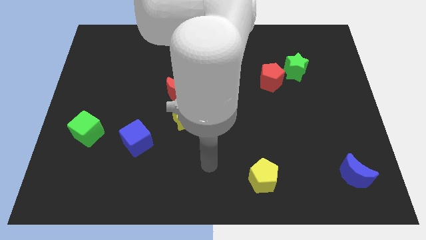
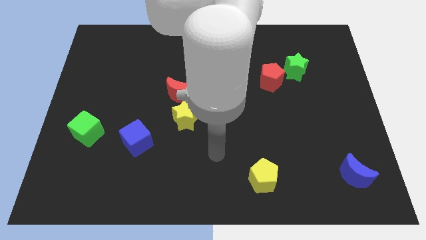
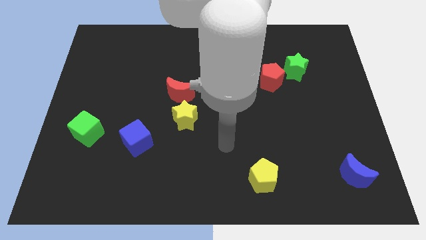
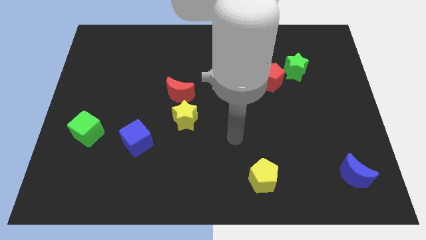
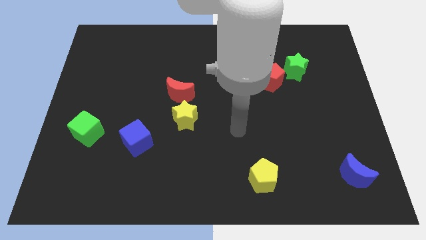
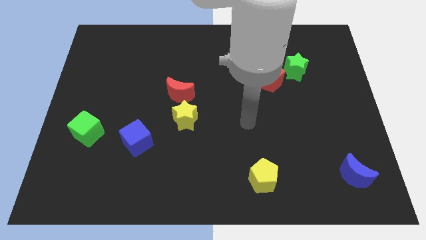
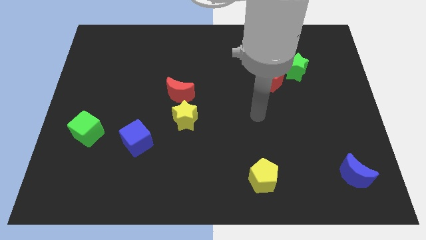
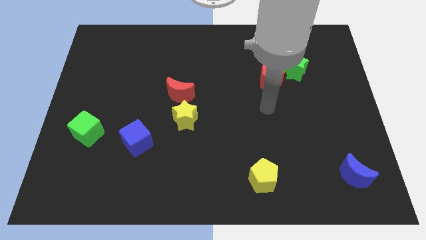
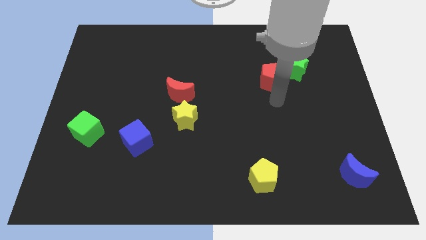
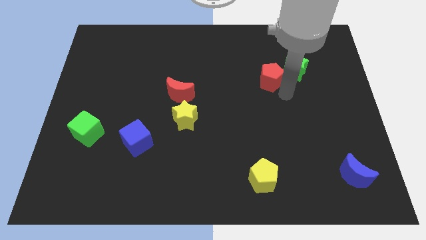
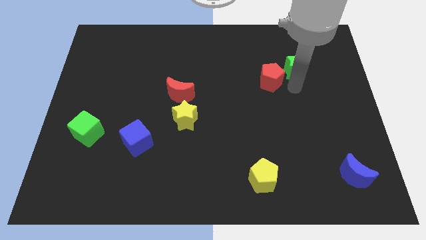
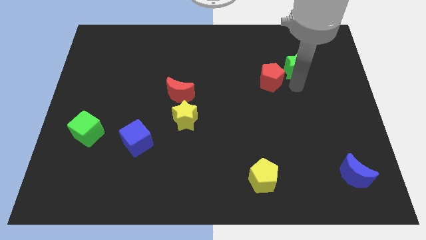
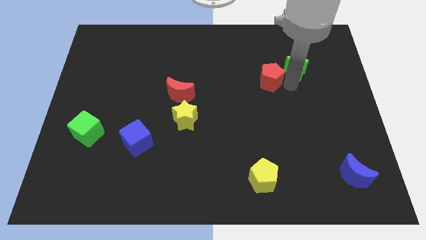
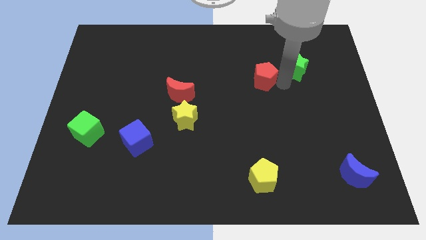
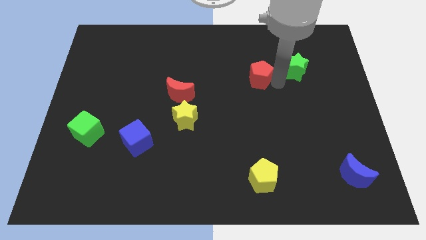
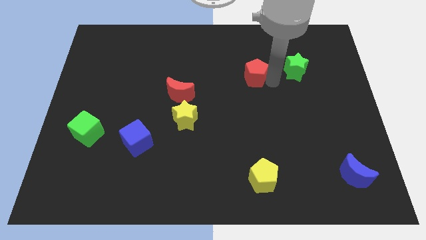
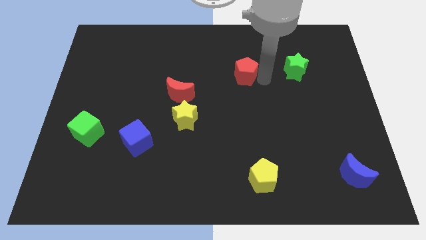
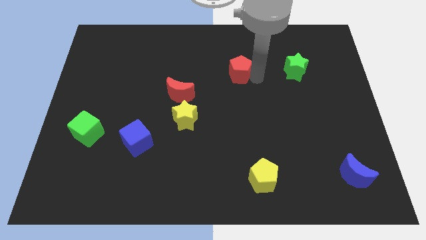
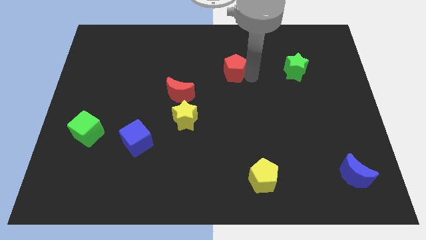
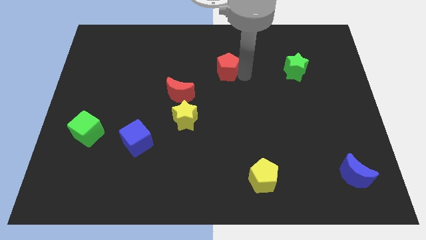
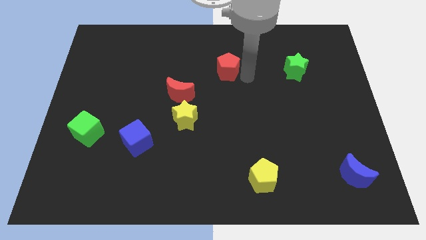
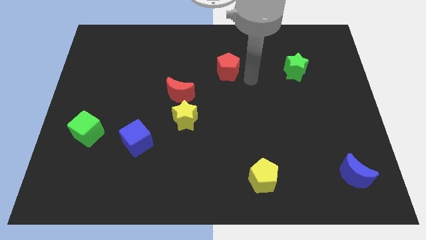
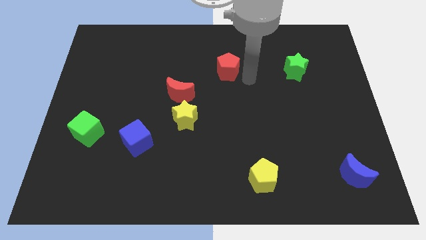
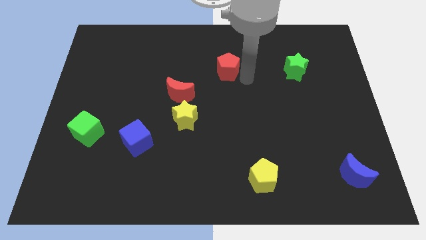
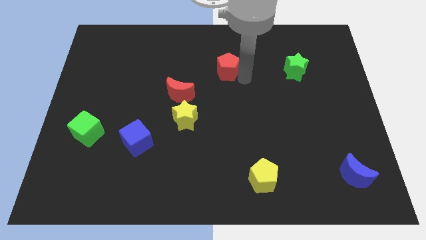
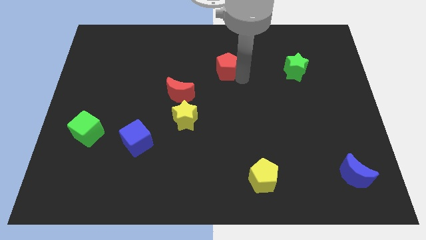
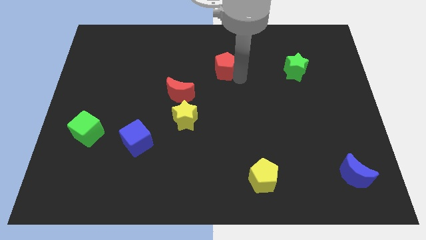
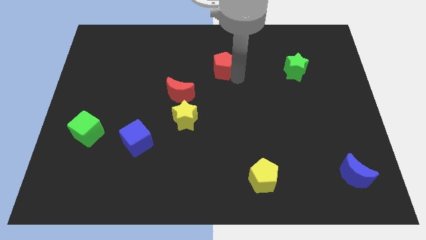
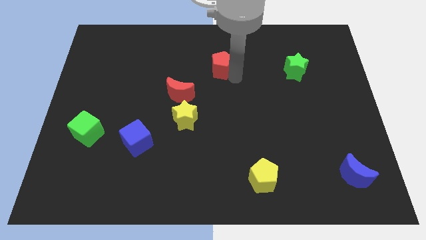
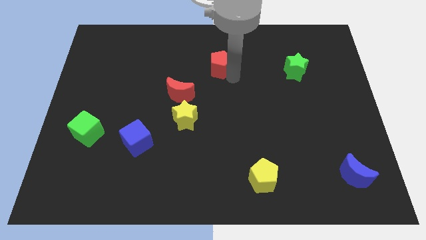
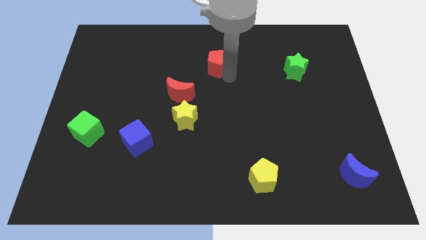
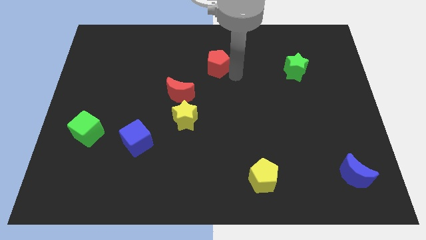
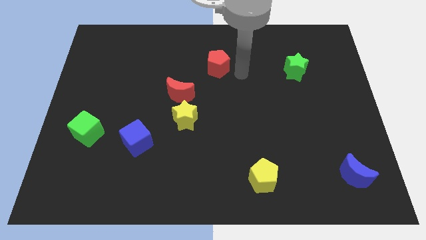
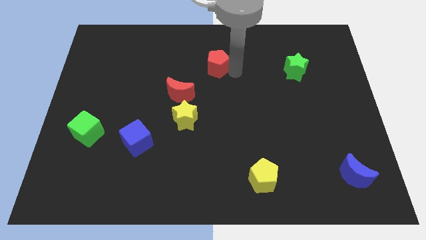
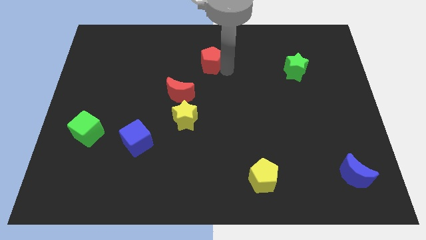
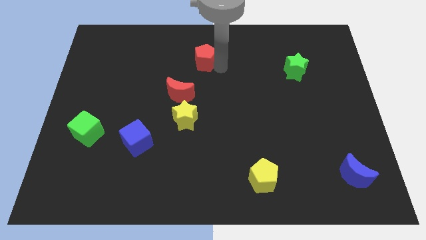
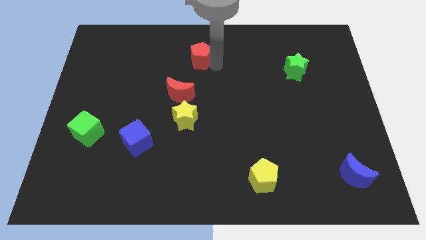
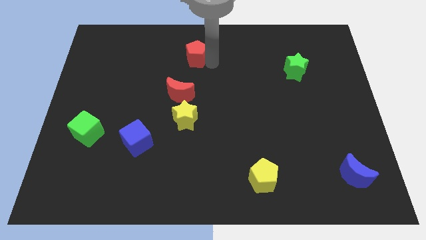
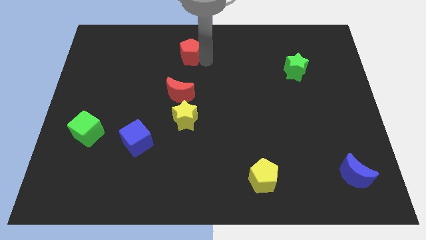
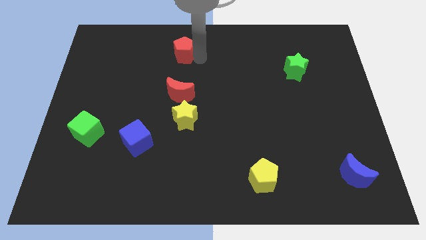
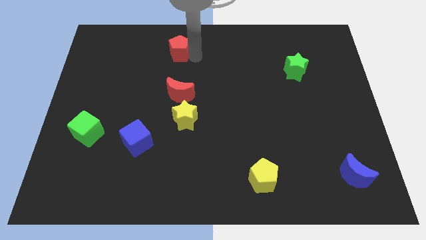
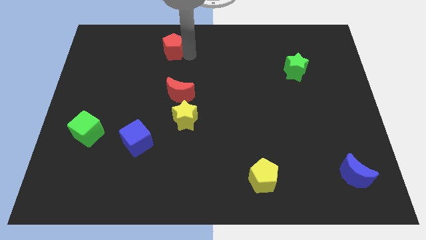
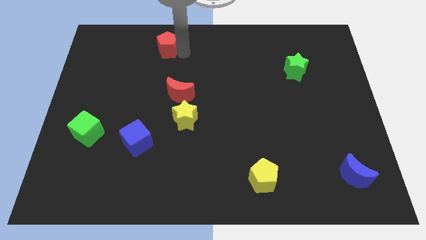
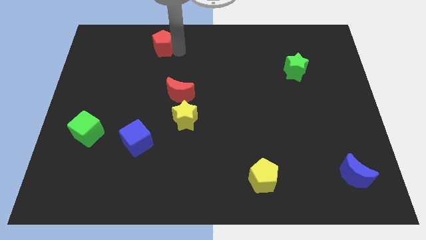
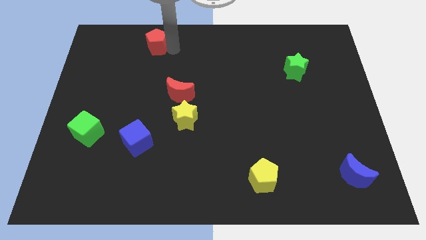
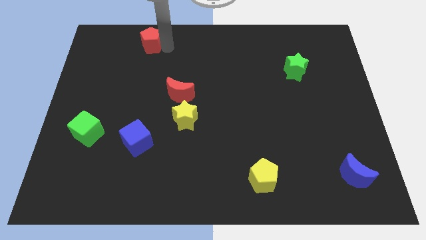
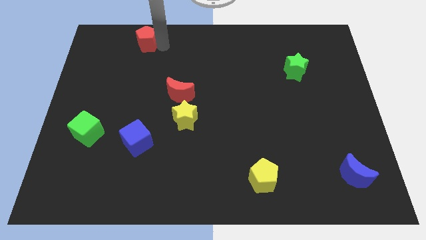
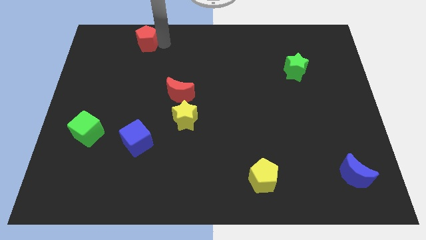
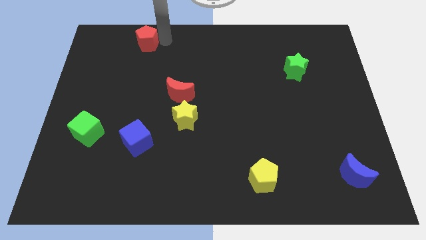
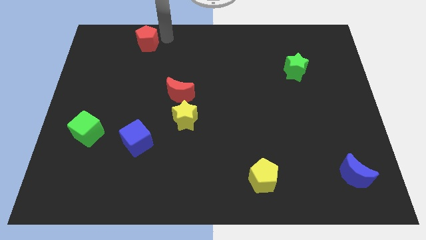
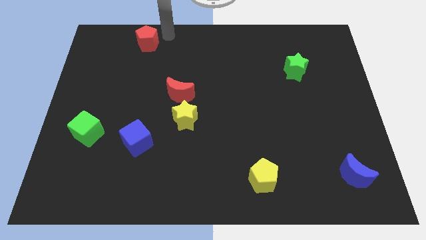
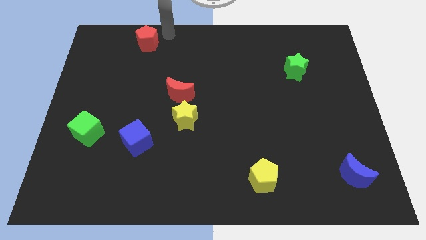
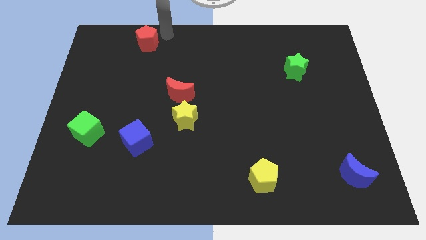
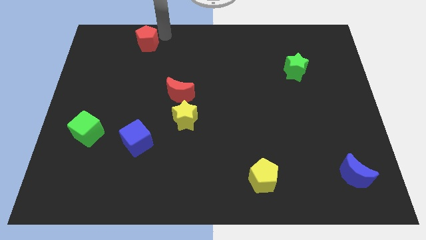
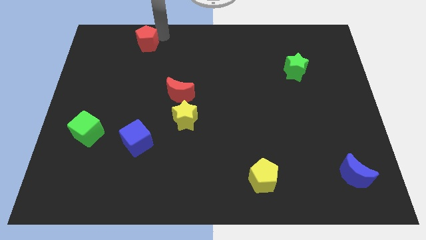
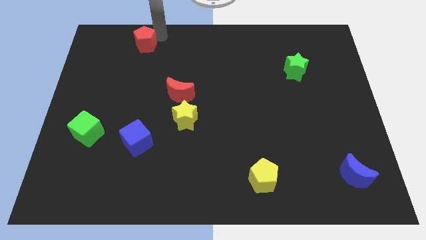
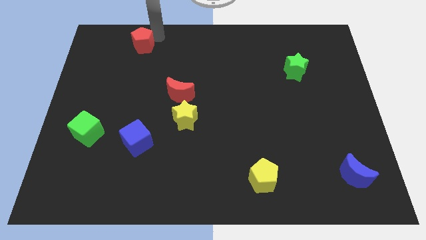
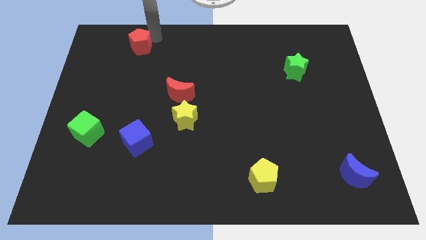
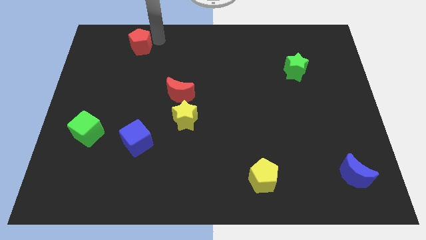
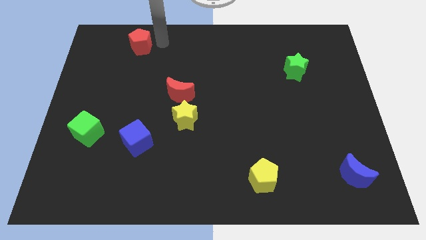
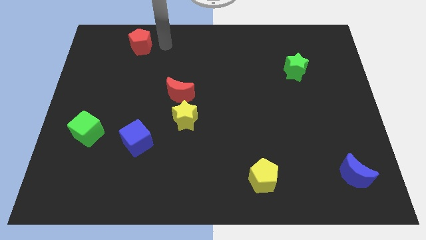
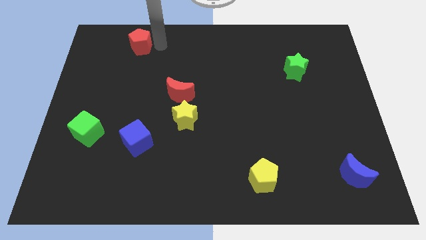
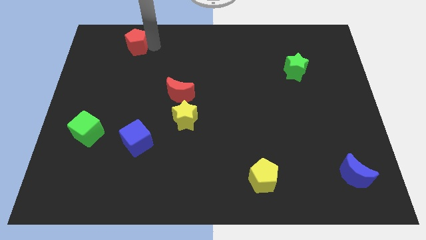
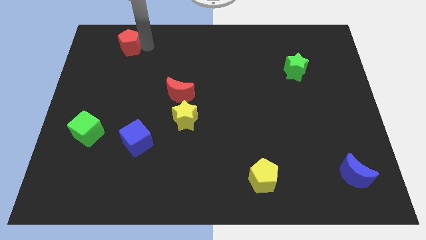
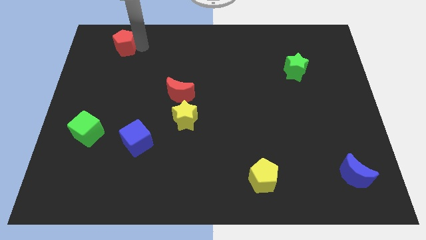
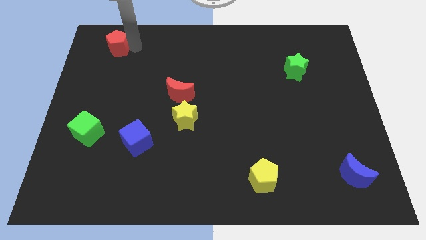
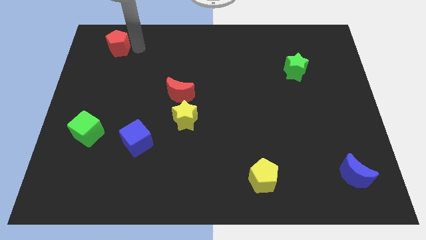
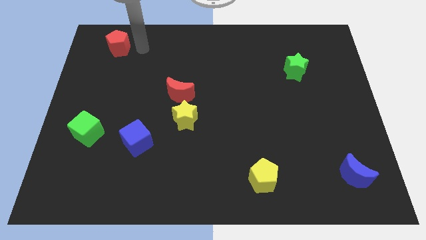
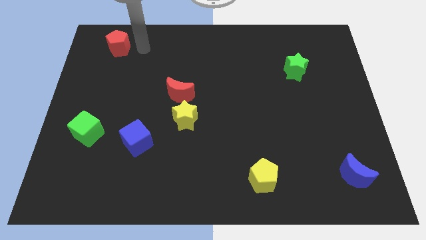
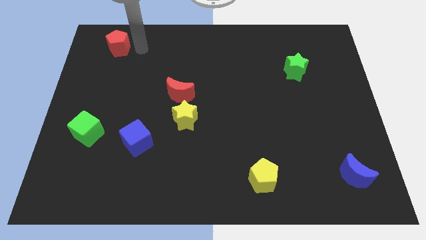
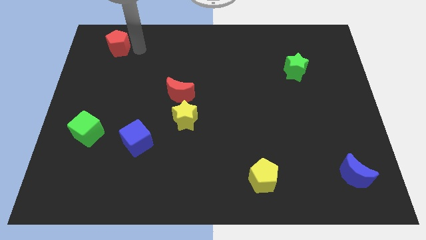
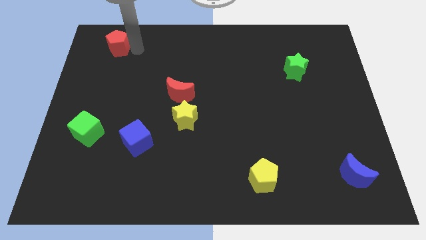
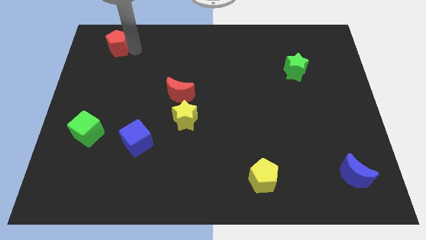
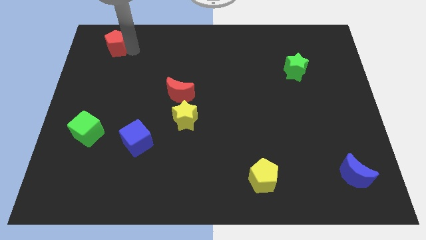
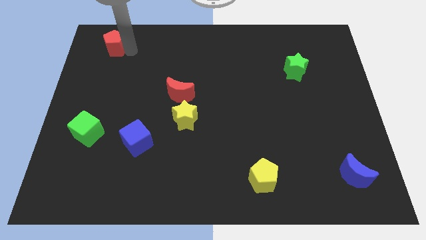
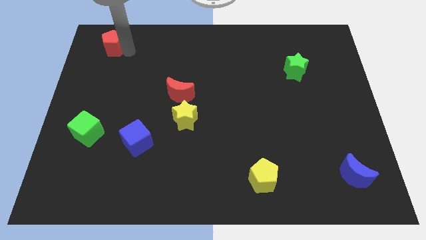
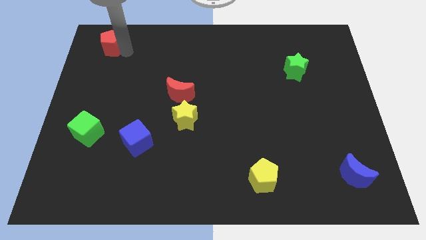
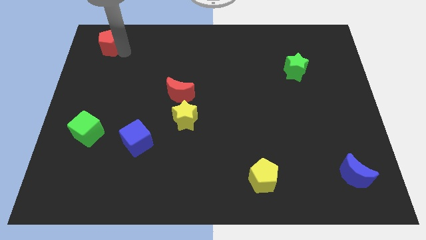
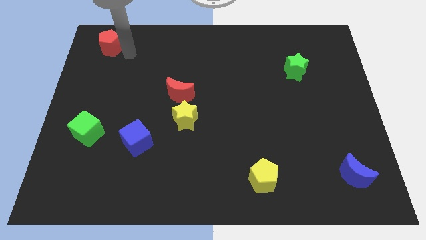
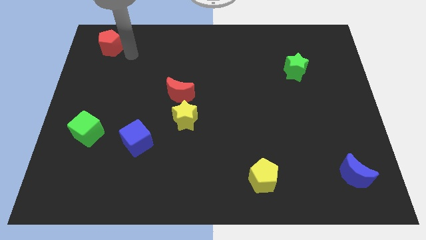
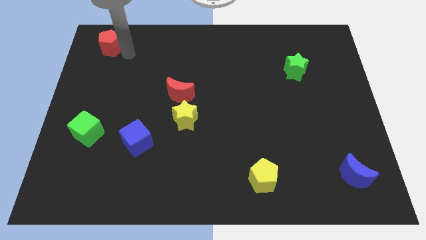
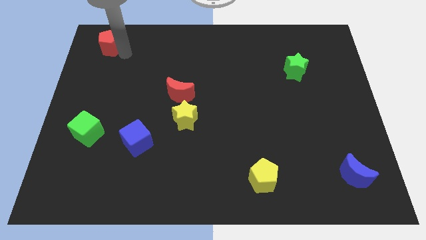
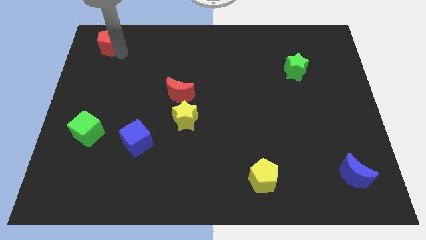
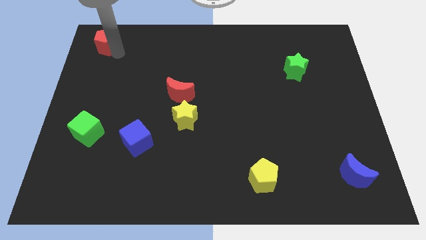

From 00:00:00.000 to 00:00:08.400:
put the red pentagon to the top left
